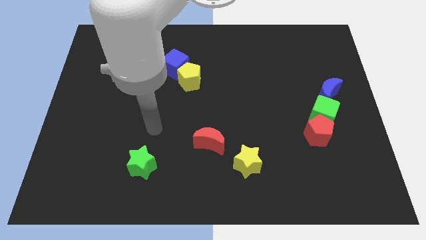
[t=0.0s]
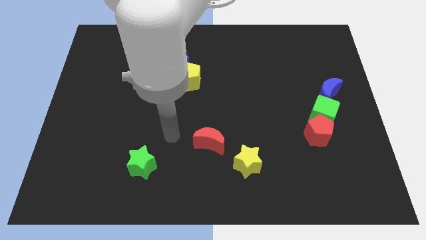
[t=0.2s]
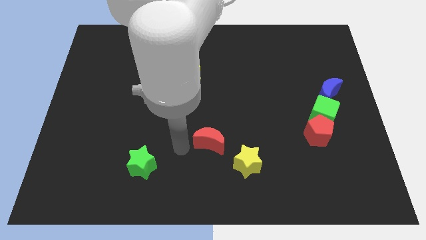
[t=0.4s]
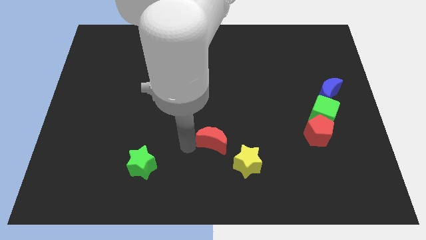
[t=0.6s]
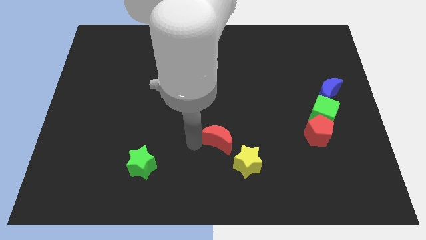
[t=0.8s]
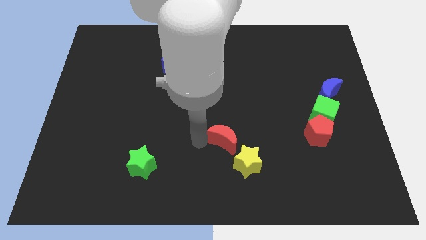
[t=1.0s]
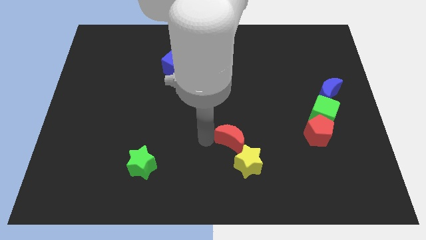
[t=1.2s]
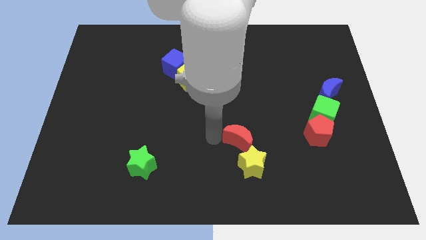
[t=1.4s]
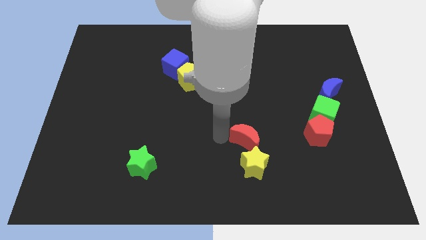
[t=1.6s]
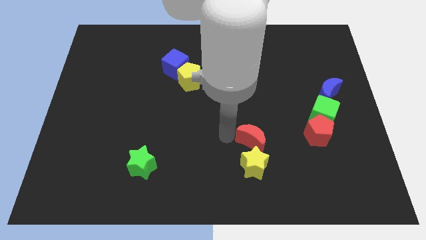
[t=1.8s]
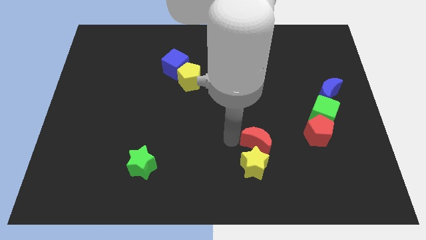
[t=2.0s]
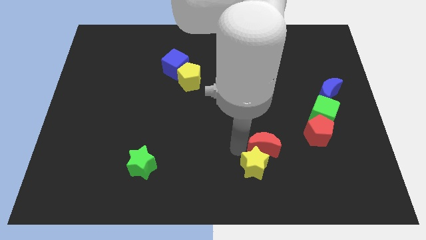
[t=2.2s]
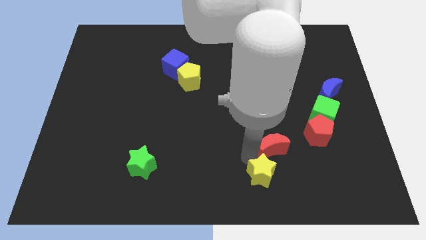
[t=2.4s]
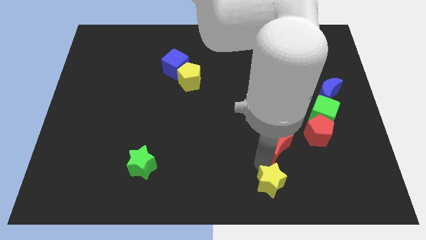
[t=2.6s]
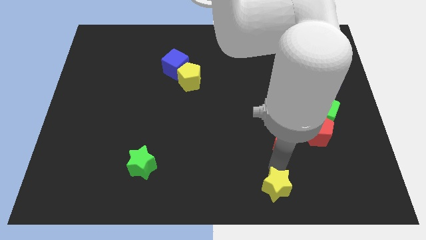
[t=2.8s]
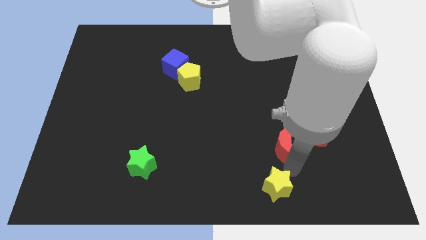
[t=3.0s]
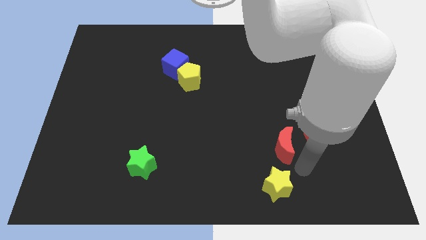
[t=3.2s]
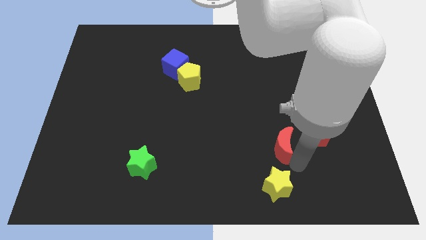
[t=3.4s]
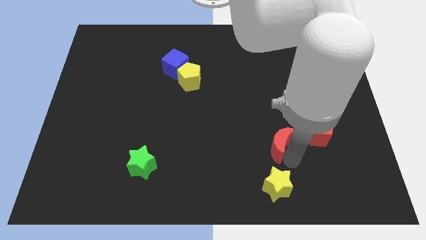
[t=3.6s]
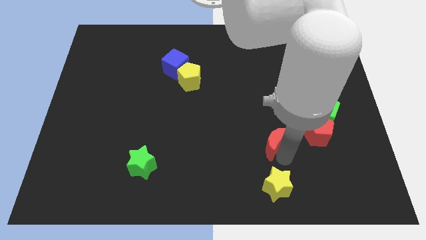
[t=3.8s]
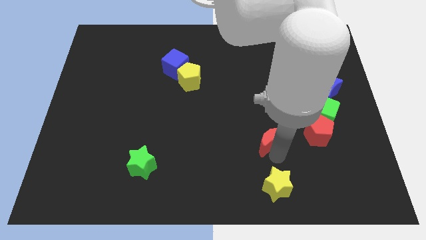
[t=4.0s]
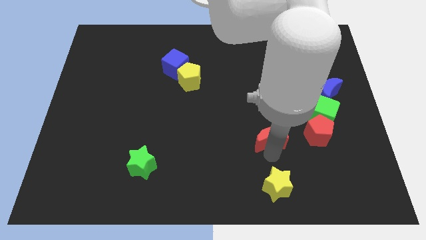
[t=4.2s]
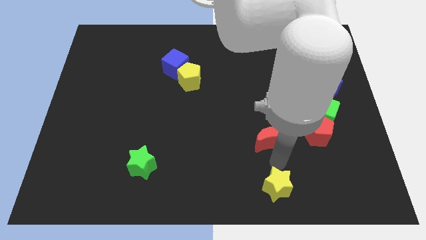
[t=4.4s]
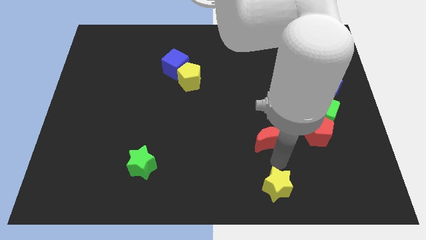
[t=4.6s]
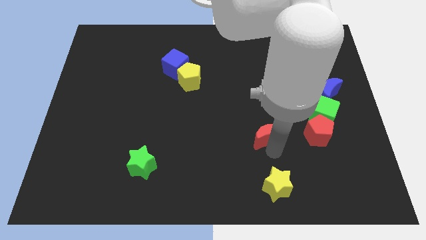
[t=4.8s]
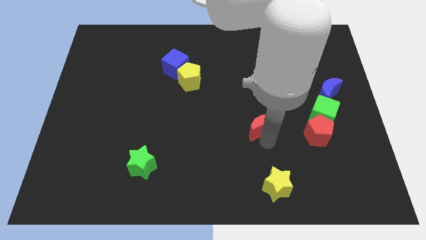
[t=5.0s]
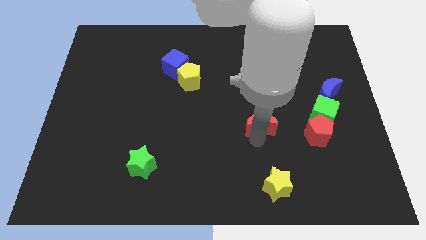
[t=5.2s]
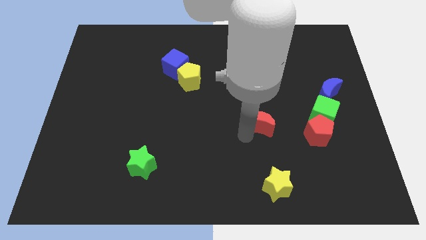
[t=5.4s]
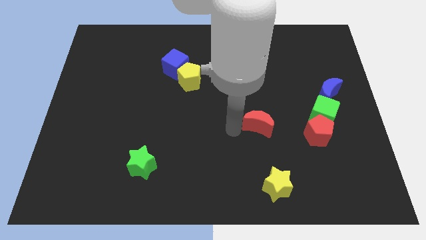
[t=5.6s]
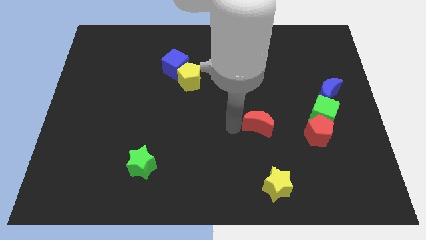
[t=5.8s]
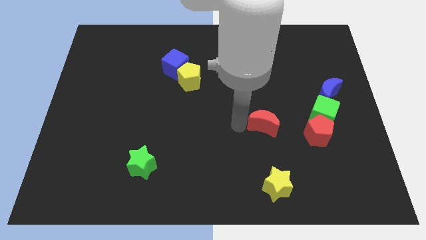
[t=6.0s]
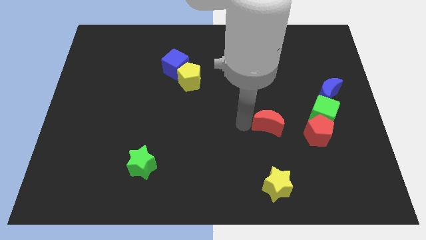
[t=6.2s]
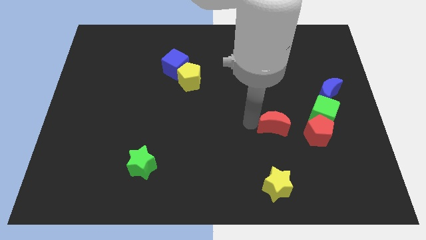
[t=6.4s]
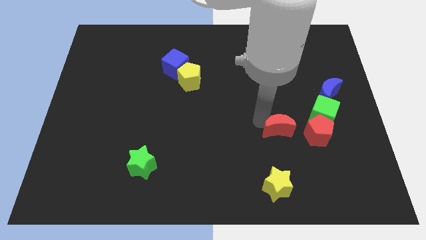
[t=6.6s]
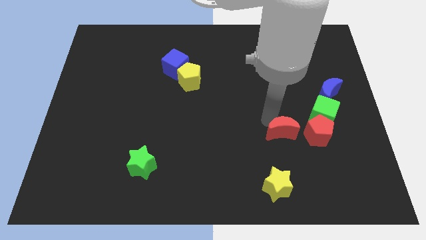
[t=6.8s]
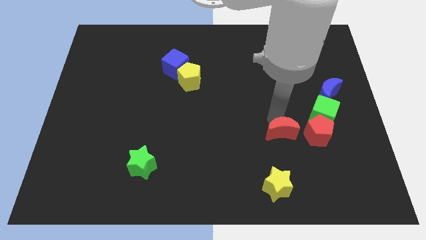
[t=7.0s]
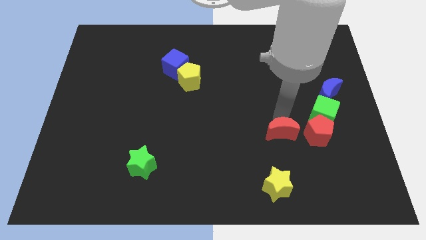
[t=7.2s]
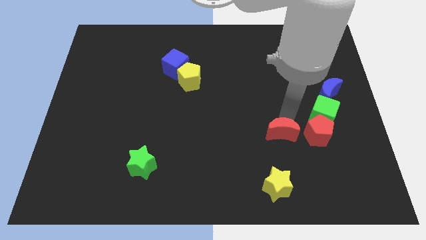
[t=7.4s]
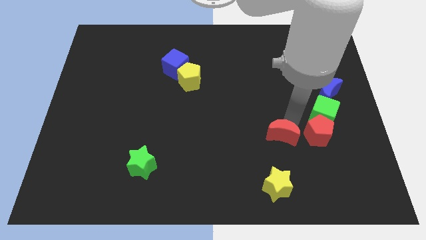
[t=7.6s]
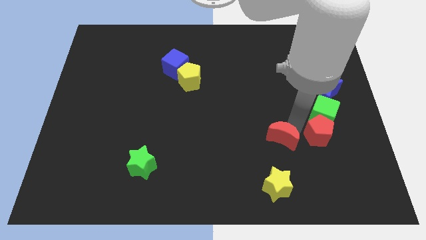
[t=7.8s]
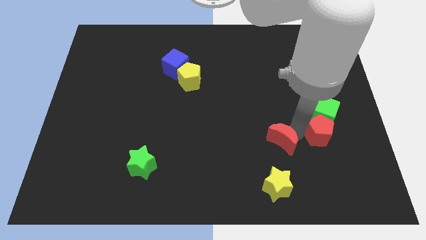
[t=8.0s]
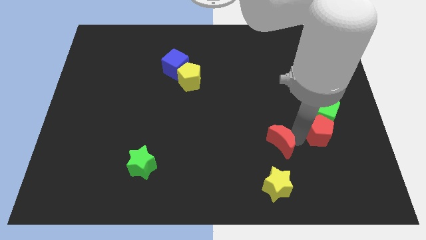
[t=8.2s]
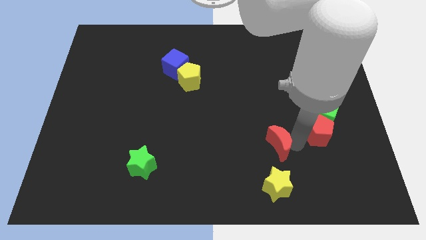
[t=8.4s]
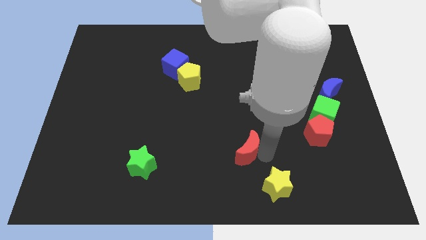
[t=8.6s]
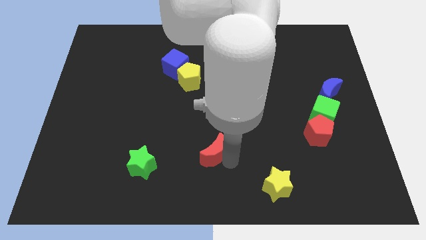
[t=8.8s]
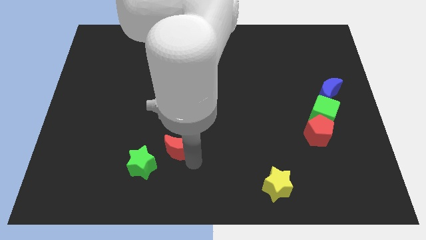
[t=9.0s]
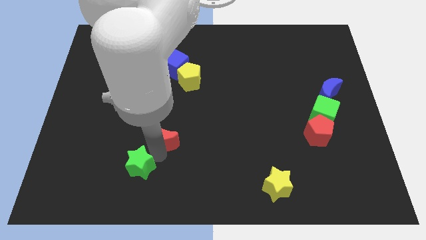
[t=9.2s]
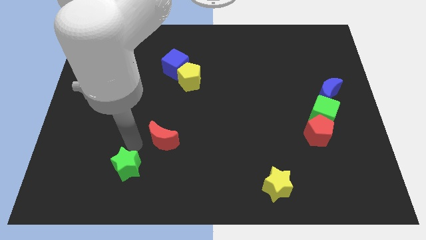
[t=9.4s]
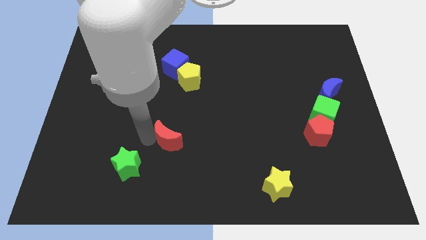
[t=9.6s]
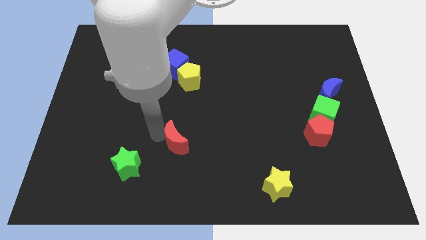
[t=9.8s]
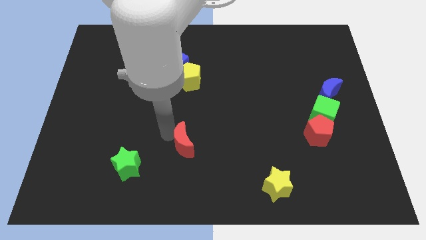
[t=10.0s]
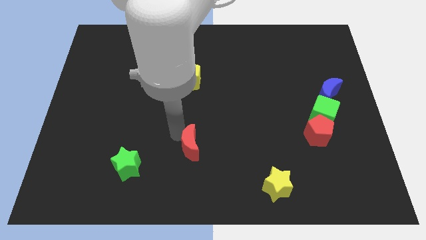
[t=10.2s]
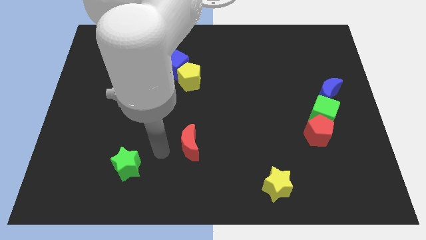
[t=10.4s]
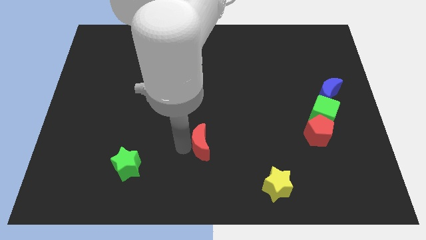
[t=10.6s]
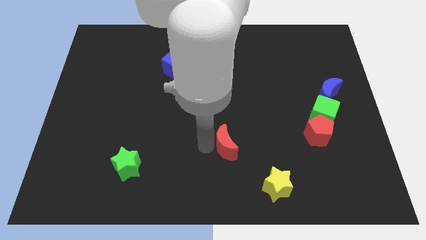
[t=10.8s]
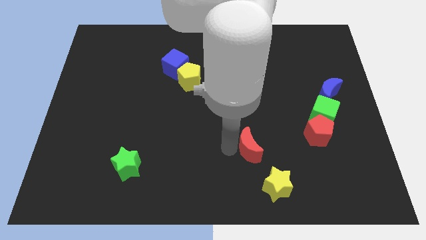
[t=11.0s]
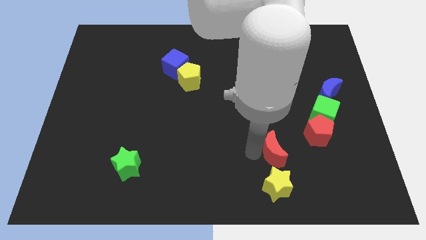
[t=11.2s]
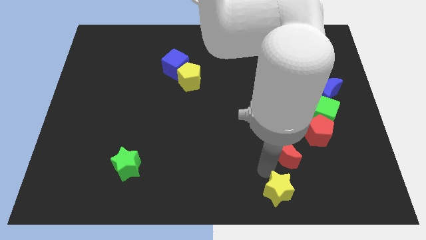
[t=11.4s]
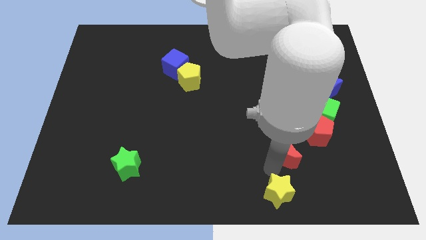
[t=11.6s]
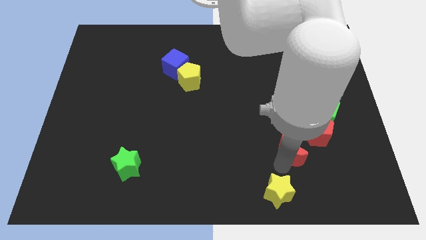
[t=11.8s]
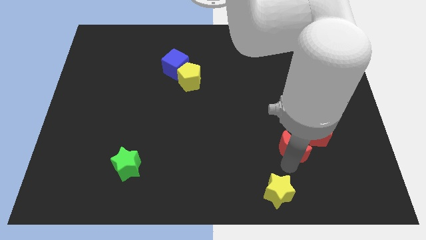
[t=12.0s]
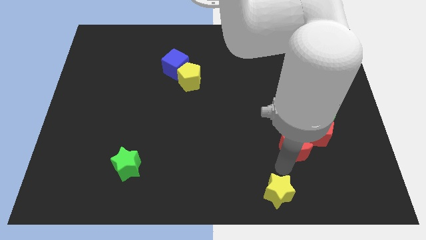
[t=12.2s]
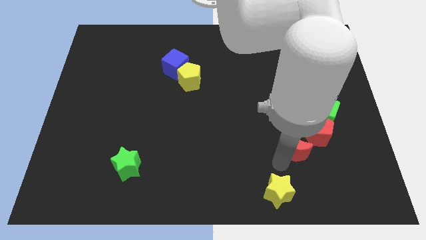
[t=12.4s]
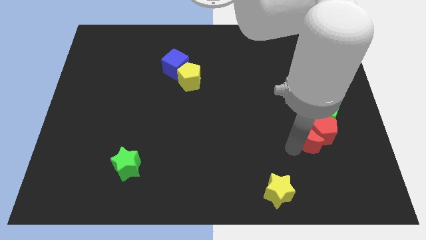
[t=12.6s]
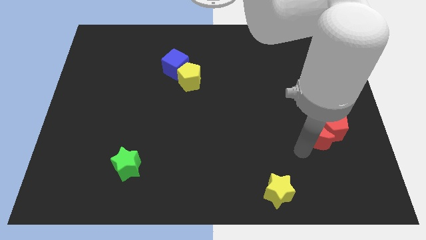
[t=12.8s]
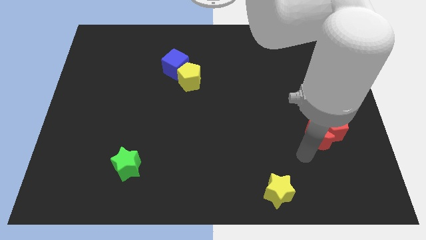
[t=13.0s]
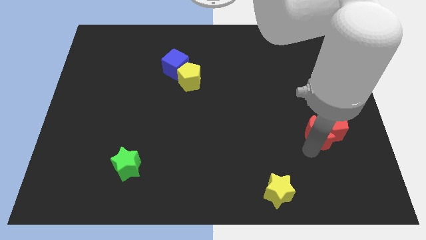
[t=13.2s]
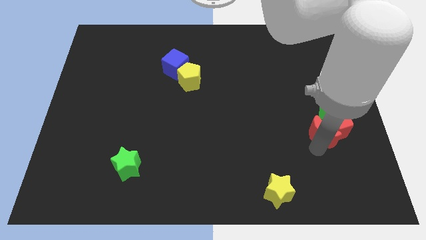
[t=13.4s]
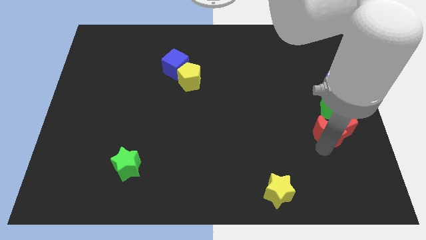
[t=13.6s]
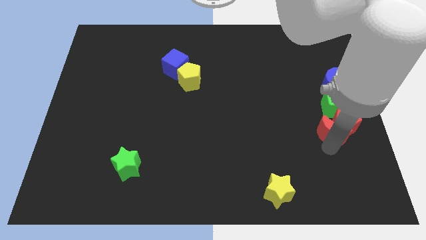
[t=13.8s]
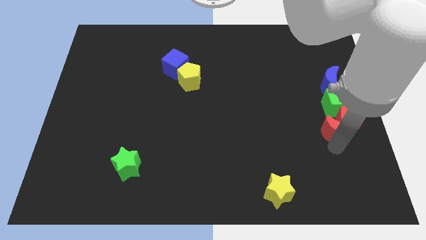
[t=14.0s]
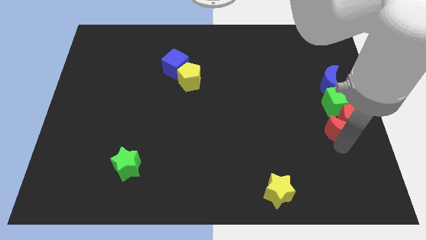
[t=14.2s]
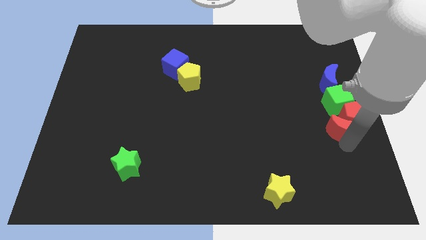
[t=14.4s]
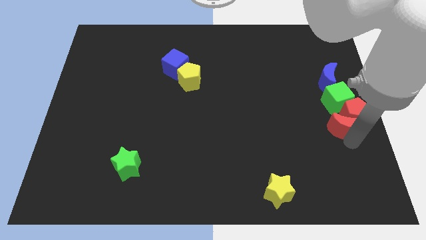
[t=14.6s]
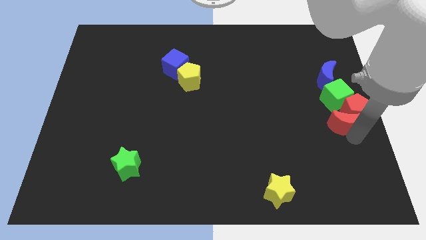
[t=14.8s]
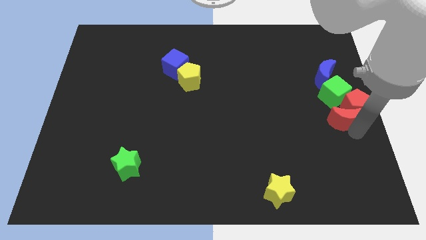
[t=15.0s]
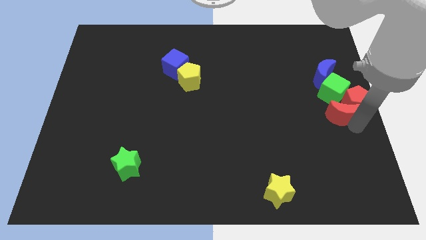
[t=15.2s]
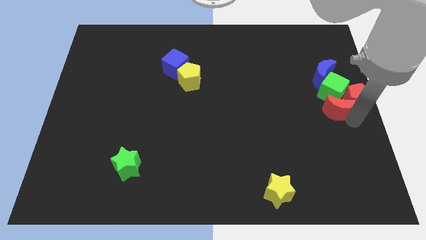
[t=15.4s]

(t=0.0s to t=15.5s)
slide the red moon to the green cube
